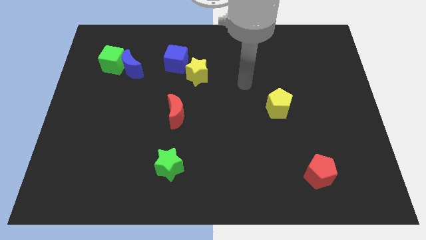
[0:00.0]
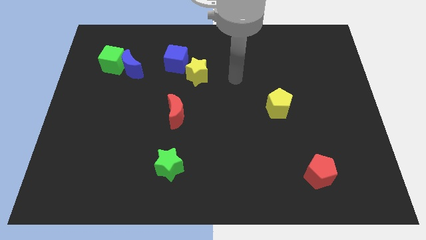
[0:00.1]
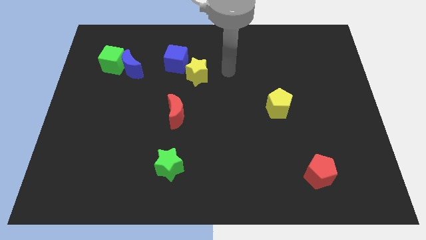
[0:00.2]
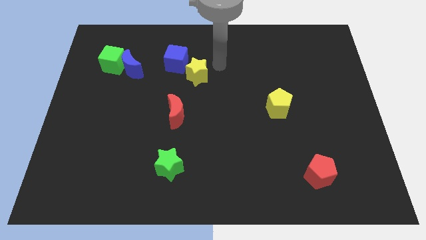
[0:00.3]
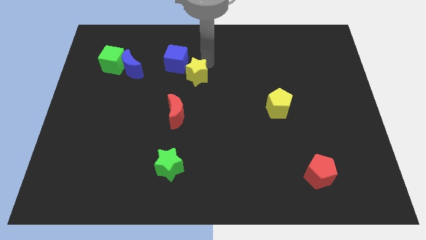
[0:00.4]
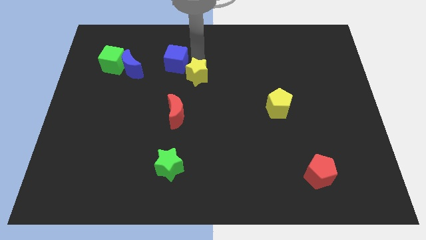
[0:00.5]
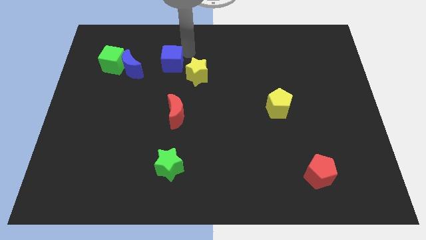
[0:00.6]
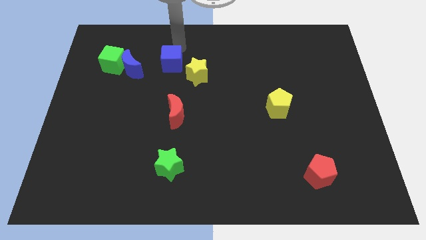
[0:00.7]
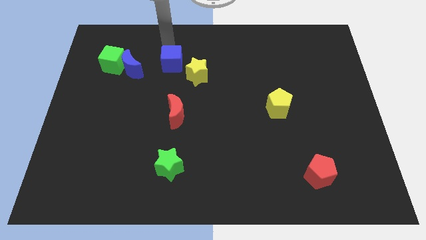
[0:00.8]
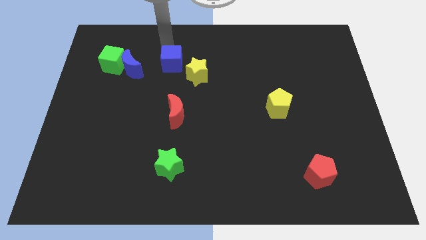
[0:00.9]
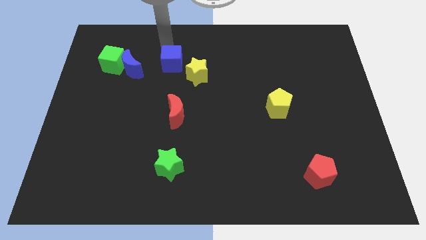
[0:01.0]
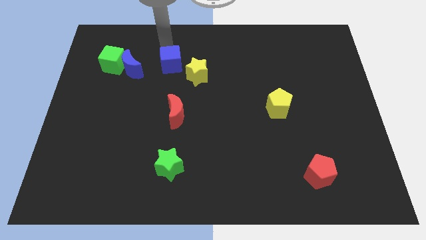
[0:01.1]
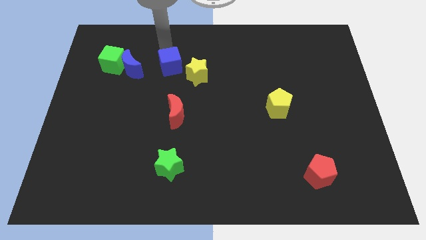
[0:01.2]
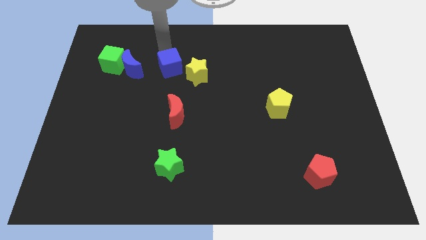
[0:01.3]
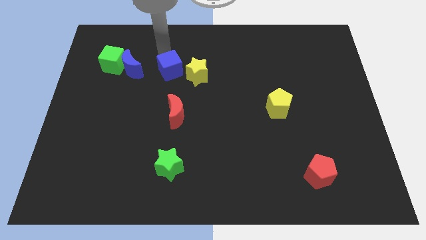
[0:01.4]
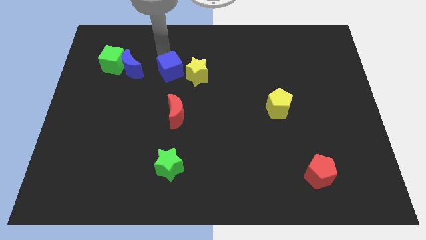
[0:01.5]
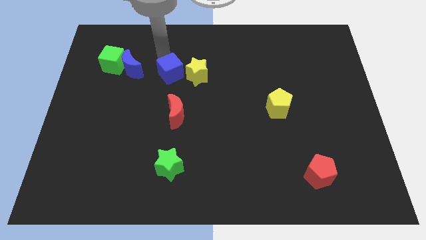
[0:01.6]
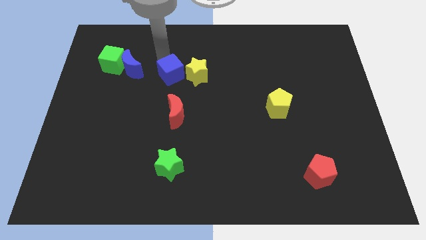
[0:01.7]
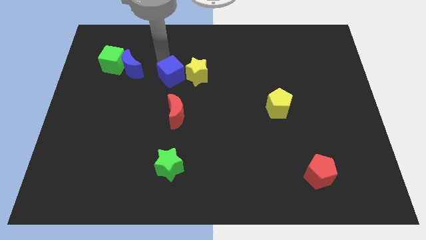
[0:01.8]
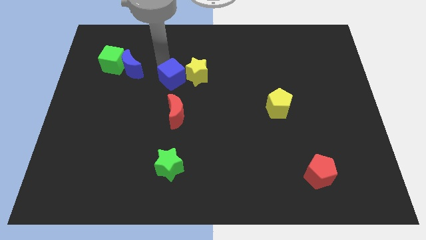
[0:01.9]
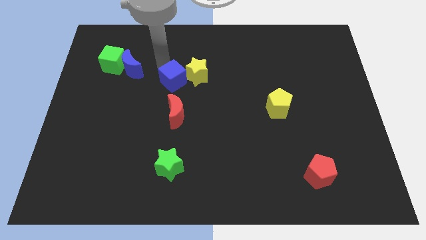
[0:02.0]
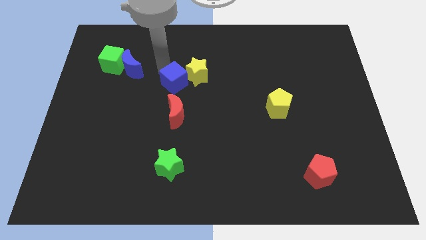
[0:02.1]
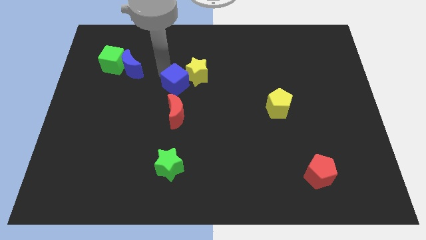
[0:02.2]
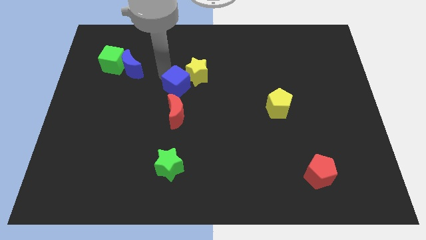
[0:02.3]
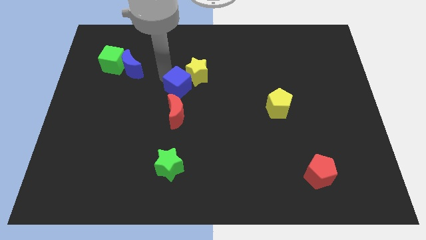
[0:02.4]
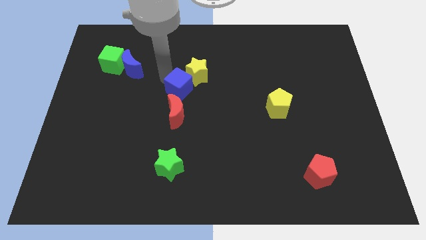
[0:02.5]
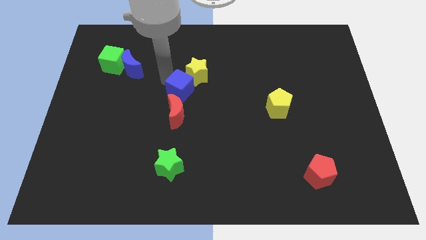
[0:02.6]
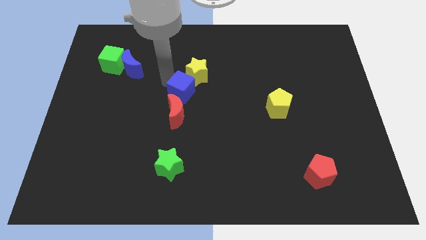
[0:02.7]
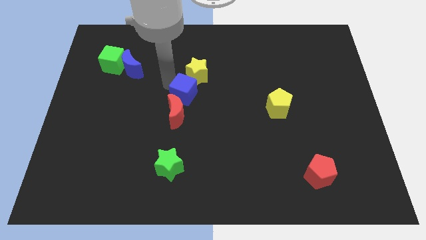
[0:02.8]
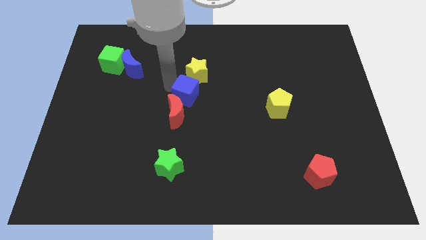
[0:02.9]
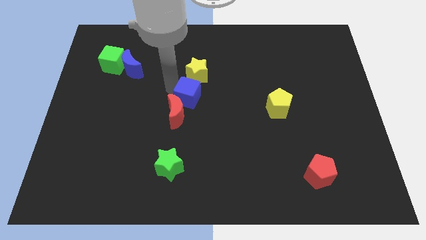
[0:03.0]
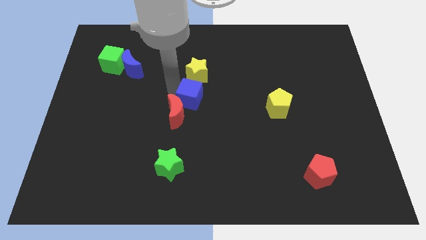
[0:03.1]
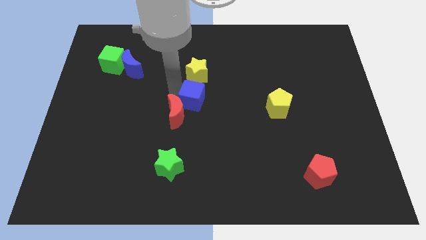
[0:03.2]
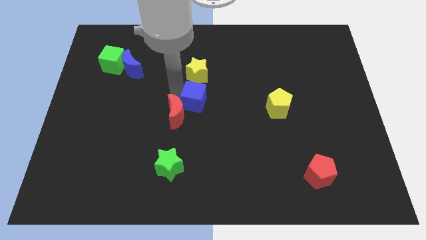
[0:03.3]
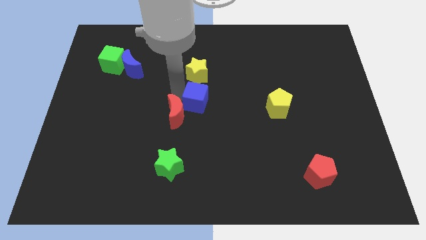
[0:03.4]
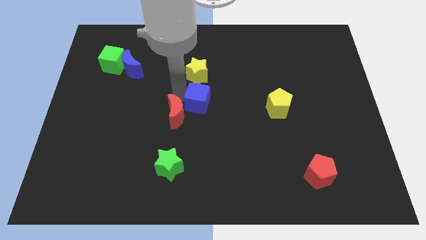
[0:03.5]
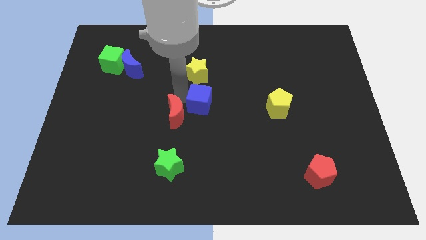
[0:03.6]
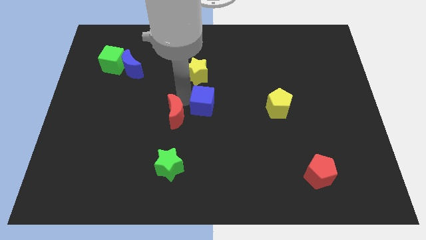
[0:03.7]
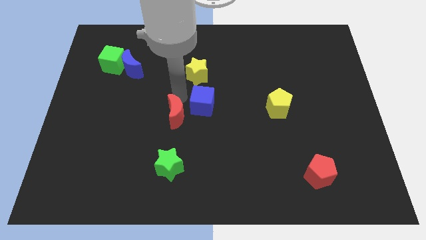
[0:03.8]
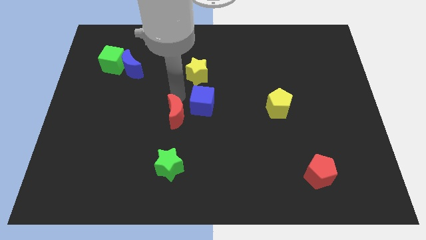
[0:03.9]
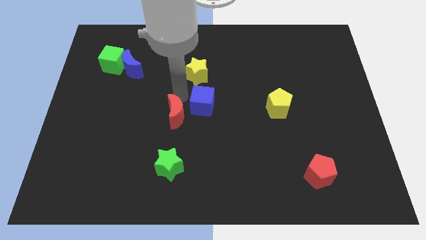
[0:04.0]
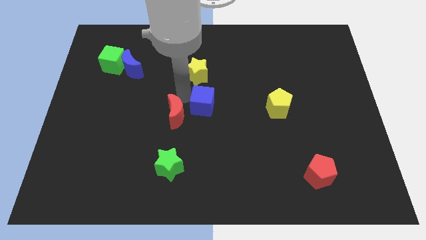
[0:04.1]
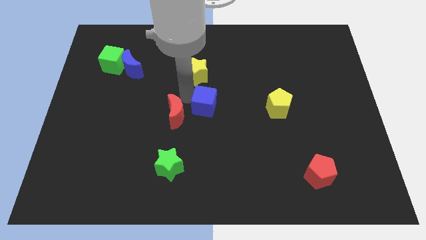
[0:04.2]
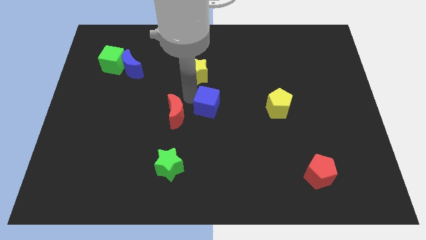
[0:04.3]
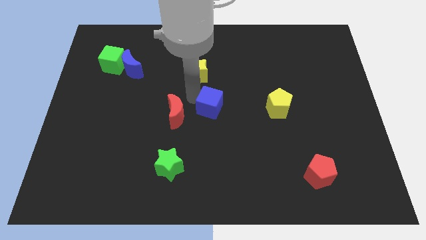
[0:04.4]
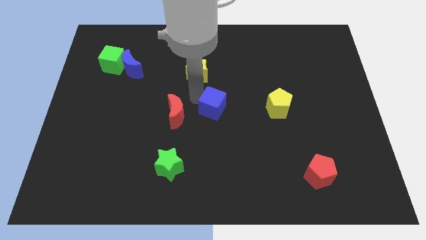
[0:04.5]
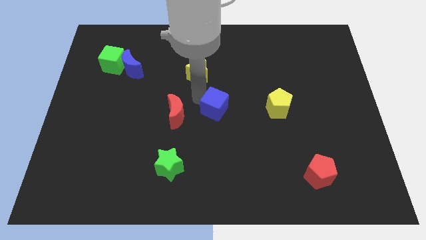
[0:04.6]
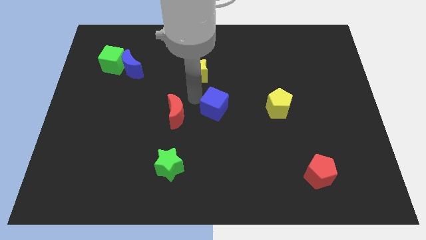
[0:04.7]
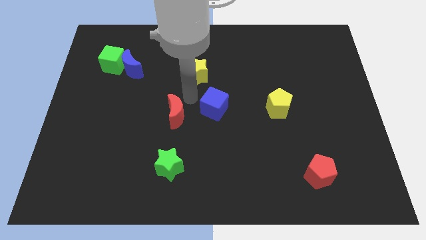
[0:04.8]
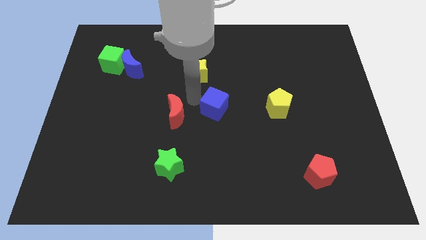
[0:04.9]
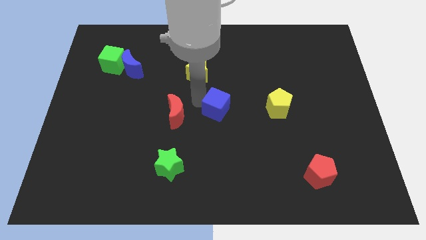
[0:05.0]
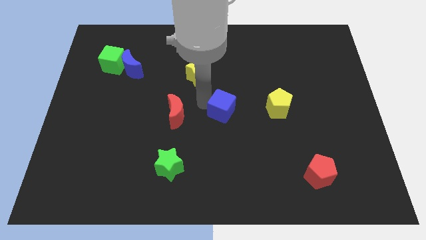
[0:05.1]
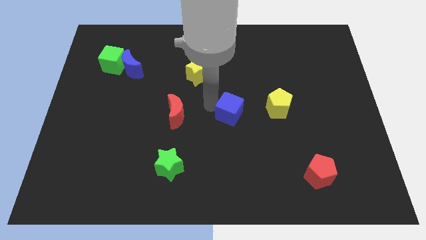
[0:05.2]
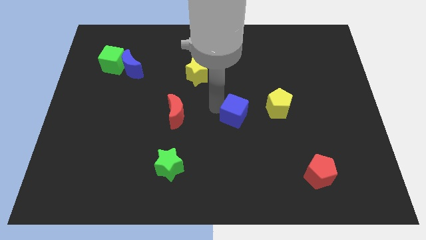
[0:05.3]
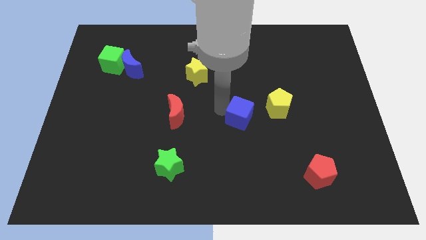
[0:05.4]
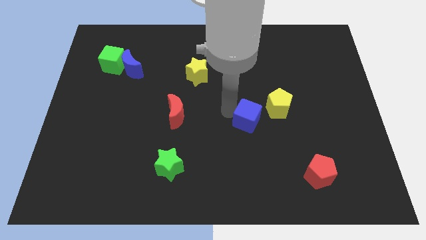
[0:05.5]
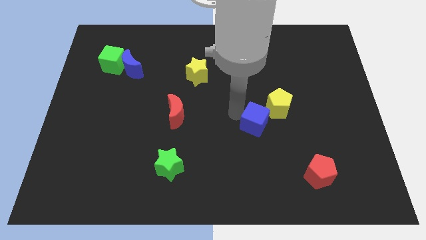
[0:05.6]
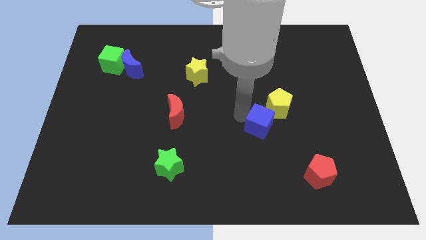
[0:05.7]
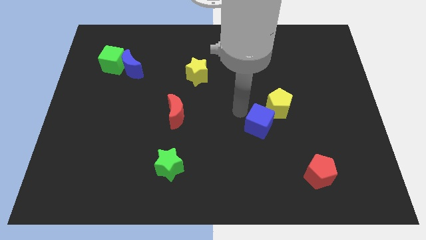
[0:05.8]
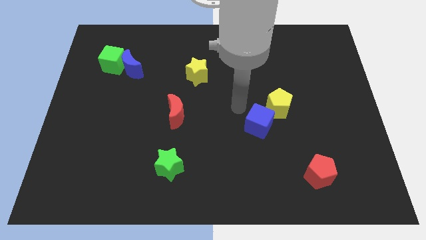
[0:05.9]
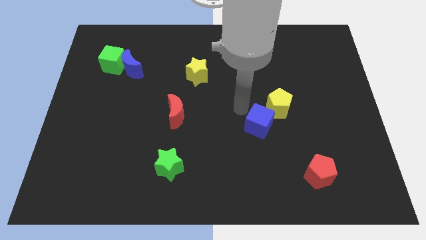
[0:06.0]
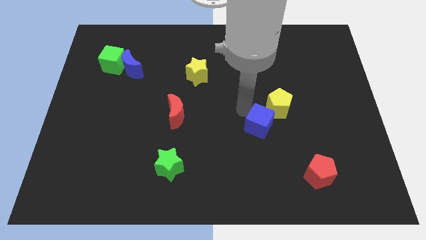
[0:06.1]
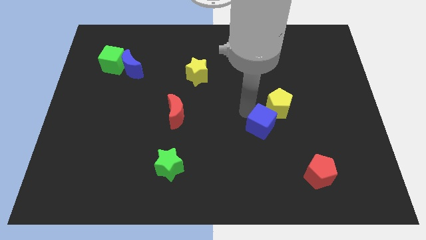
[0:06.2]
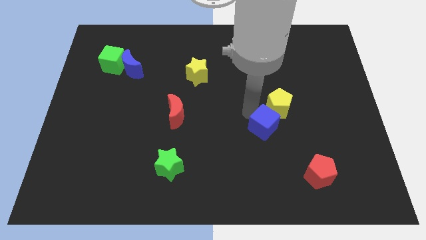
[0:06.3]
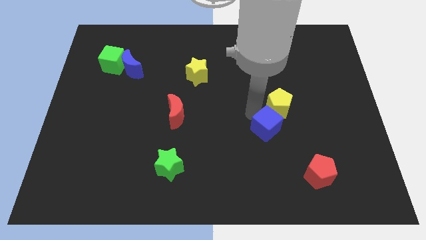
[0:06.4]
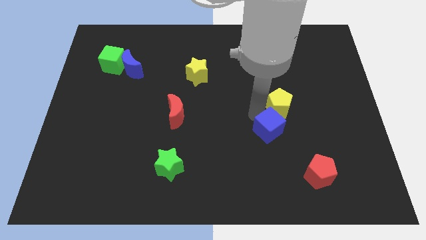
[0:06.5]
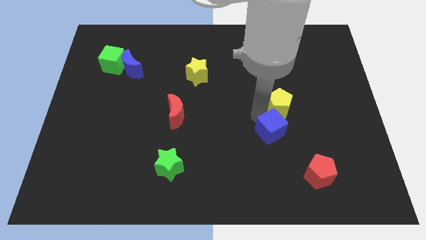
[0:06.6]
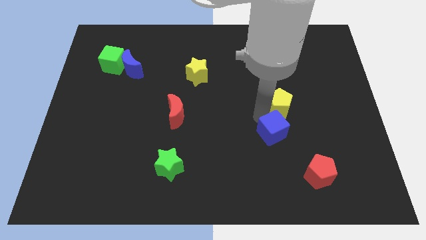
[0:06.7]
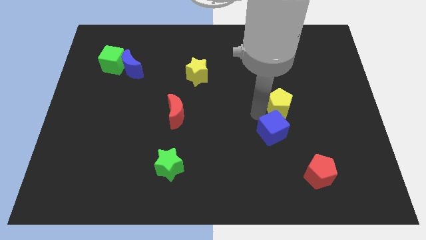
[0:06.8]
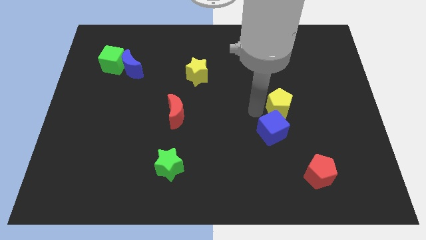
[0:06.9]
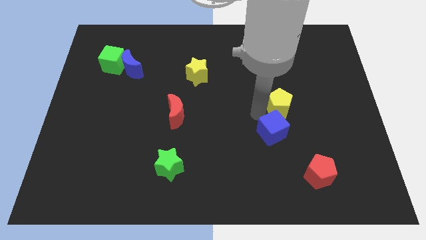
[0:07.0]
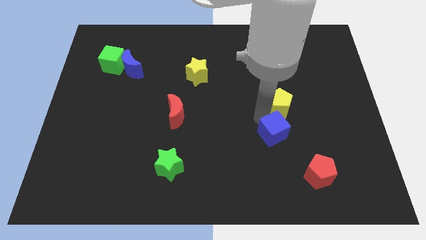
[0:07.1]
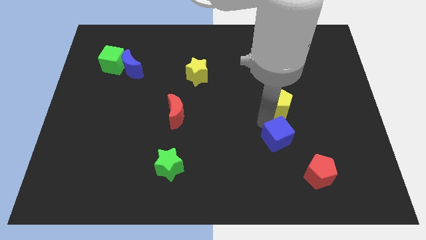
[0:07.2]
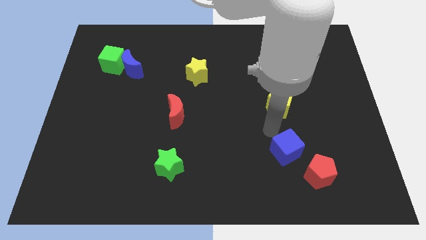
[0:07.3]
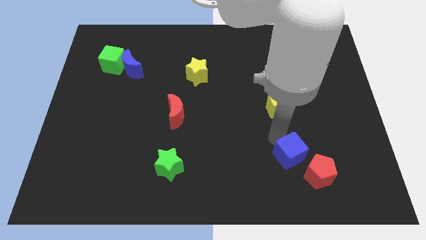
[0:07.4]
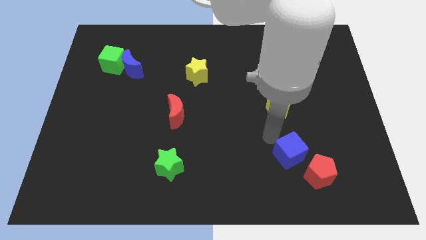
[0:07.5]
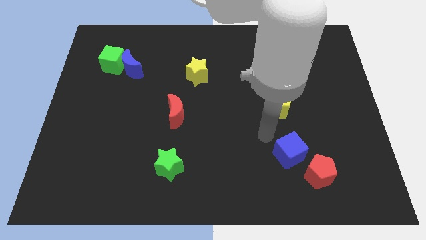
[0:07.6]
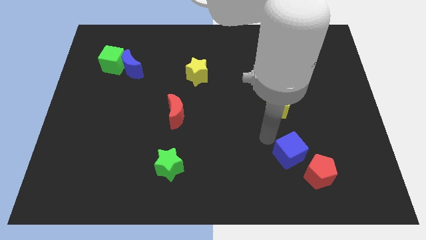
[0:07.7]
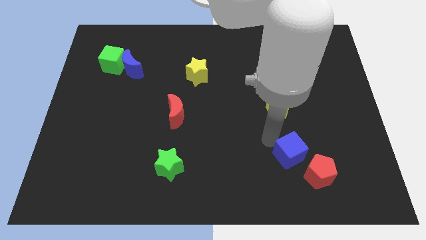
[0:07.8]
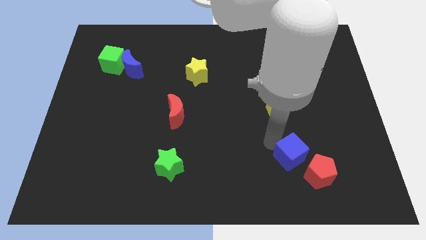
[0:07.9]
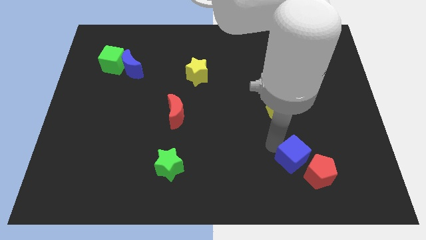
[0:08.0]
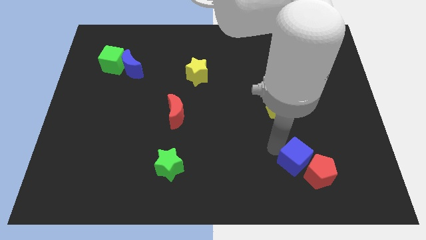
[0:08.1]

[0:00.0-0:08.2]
push the blue cube to the red pentagon
